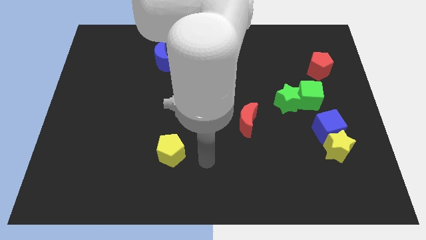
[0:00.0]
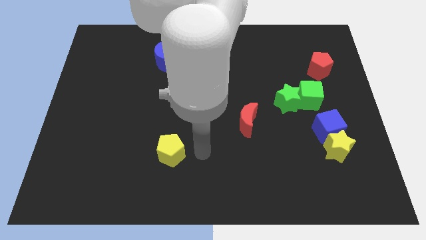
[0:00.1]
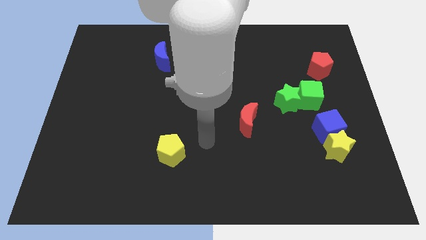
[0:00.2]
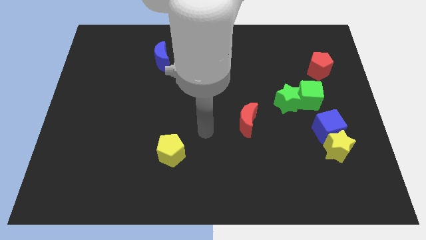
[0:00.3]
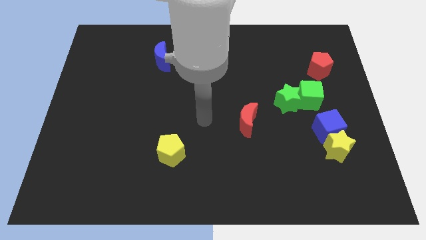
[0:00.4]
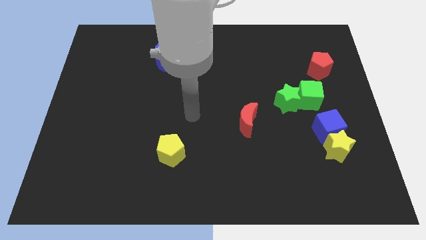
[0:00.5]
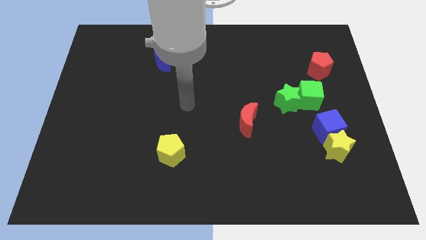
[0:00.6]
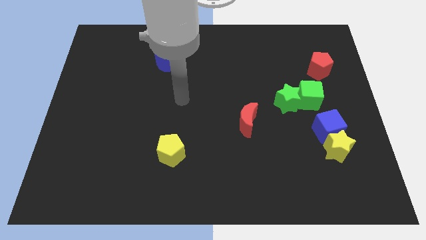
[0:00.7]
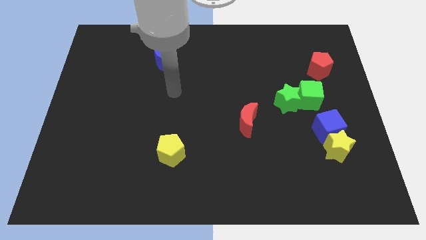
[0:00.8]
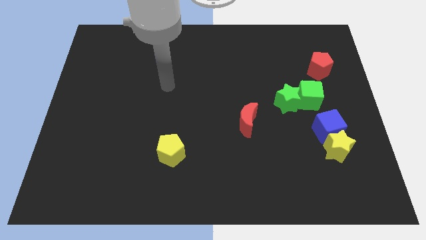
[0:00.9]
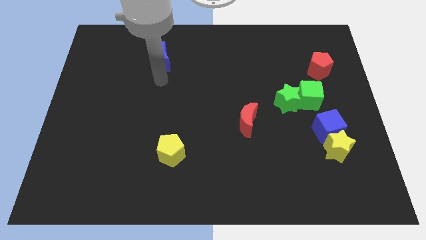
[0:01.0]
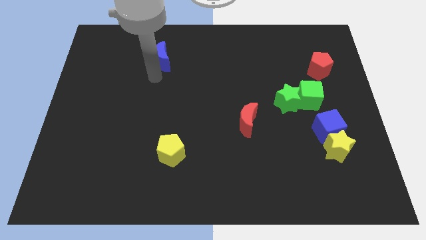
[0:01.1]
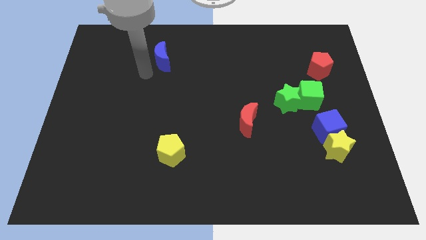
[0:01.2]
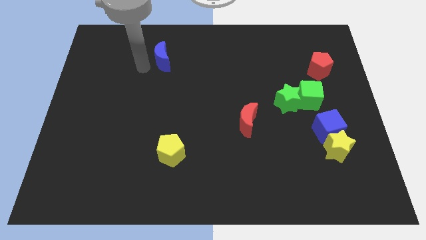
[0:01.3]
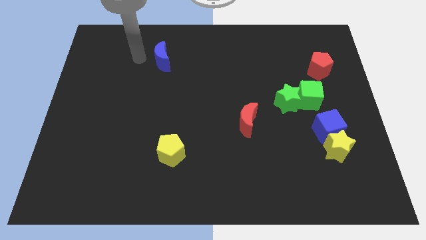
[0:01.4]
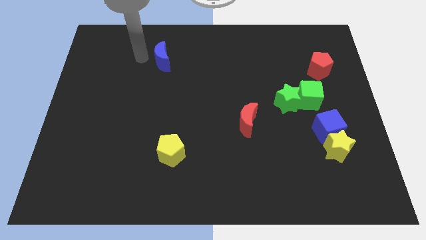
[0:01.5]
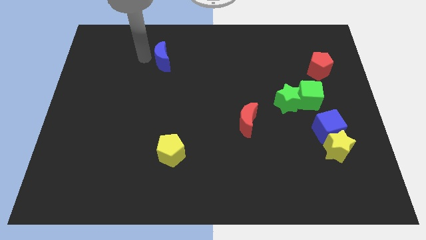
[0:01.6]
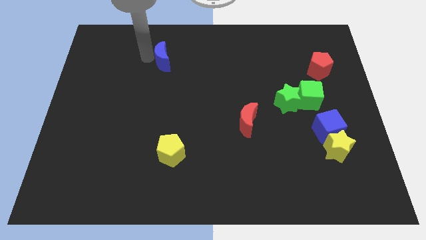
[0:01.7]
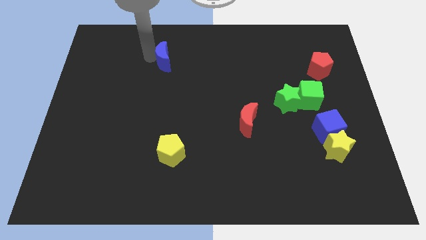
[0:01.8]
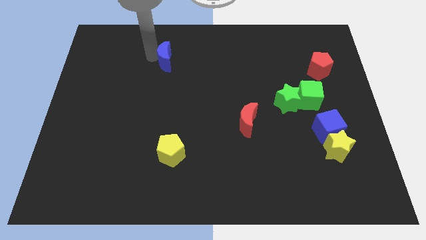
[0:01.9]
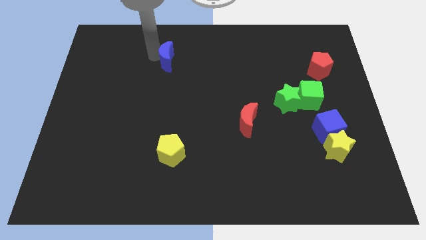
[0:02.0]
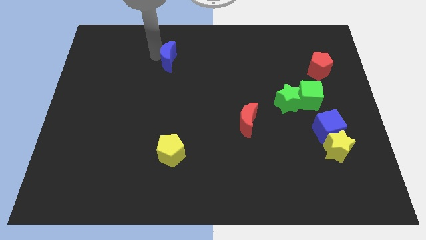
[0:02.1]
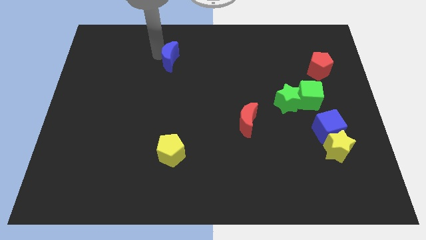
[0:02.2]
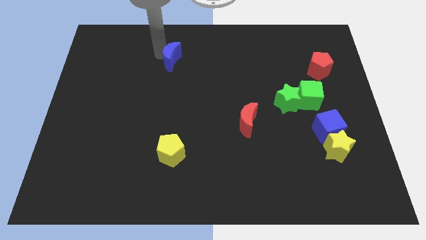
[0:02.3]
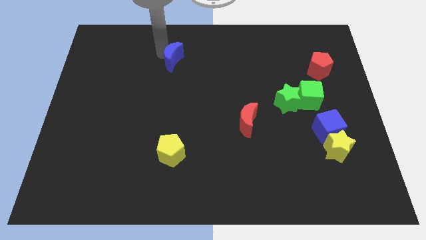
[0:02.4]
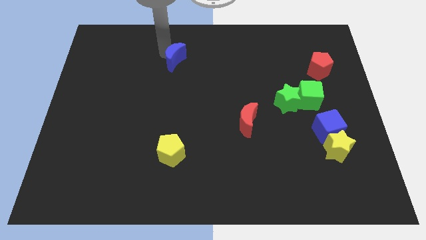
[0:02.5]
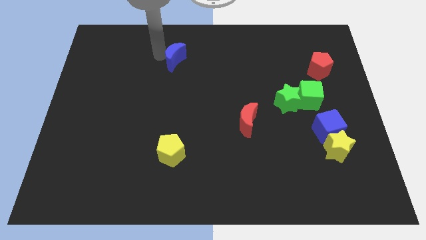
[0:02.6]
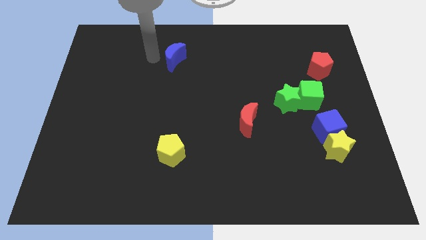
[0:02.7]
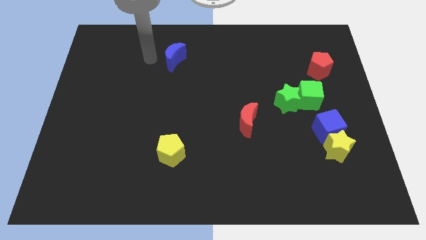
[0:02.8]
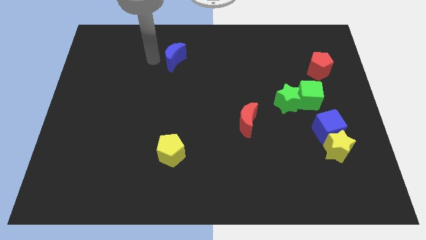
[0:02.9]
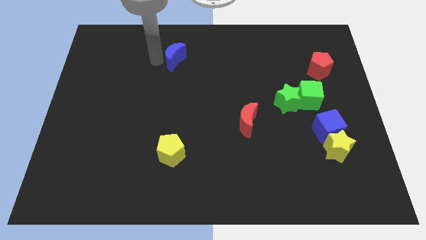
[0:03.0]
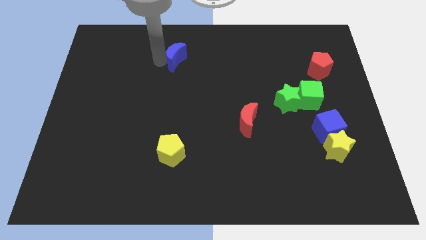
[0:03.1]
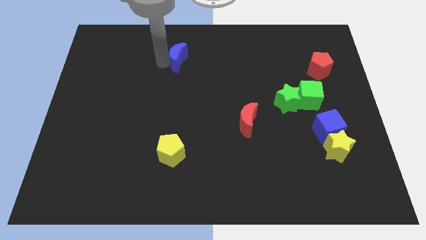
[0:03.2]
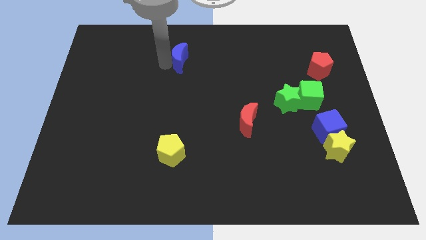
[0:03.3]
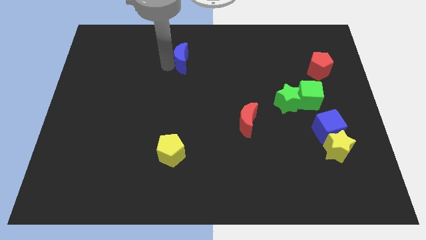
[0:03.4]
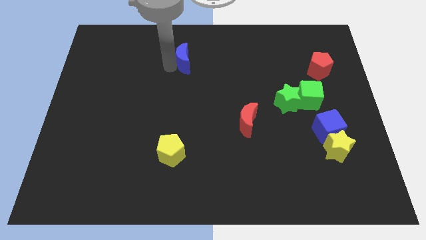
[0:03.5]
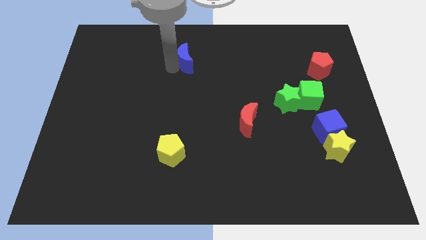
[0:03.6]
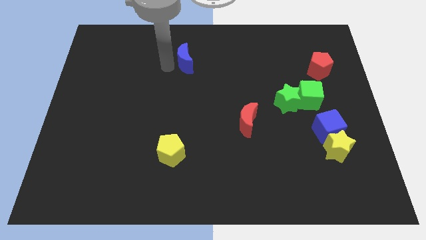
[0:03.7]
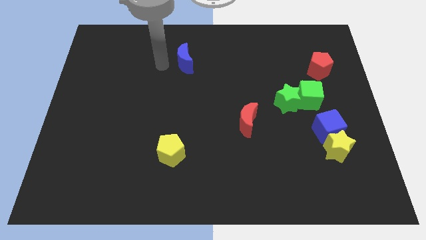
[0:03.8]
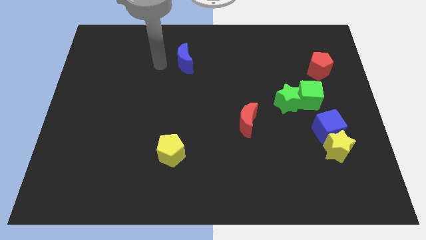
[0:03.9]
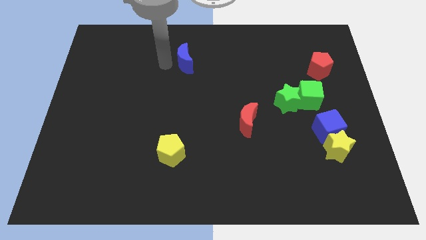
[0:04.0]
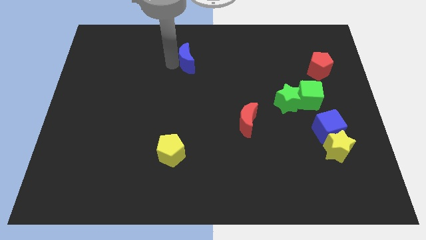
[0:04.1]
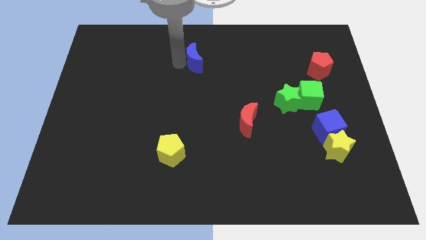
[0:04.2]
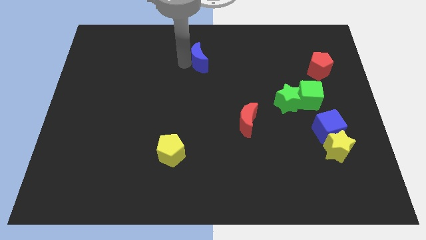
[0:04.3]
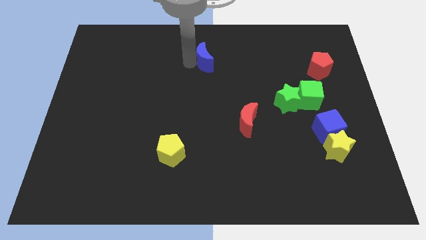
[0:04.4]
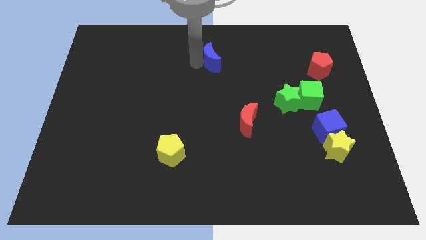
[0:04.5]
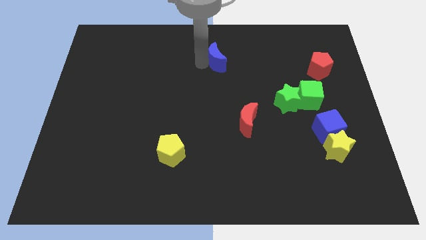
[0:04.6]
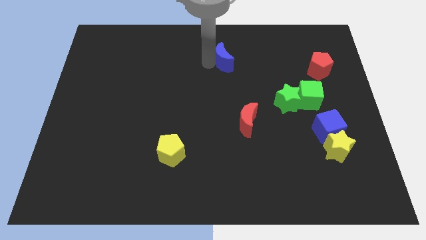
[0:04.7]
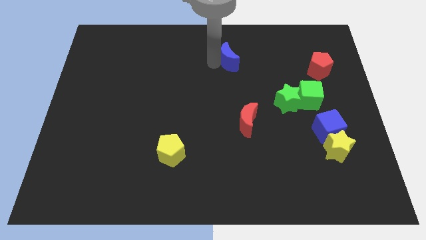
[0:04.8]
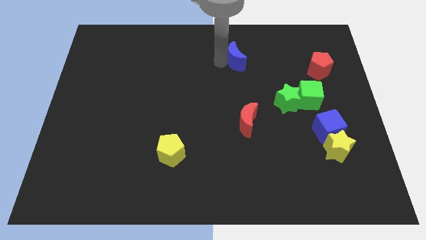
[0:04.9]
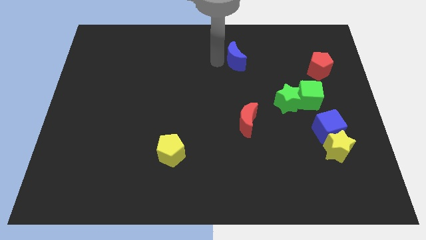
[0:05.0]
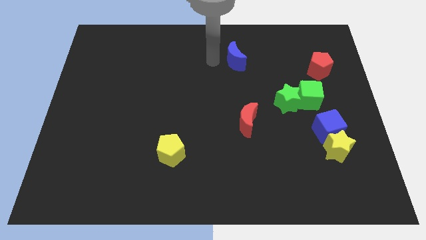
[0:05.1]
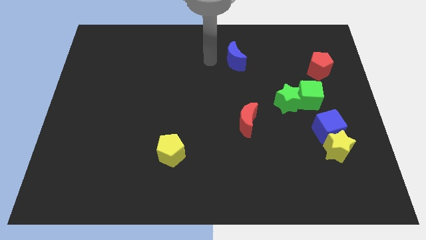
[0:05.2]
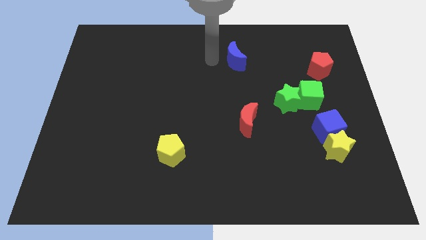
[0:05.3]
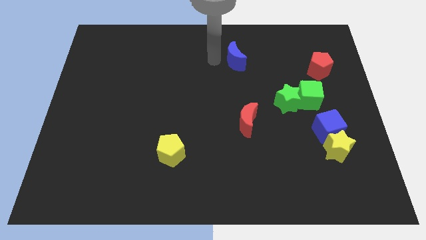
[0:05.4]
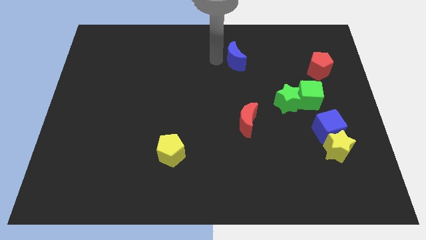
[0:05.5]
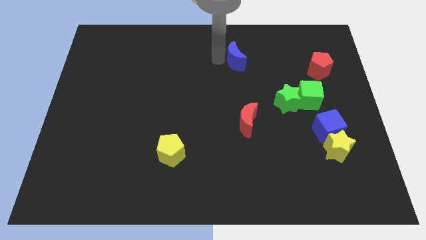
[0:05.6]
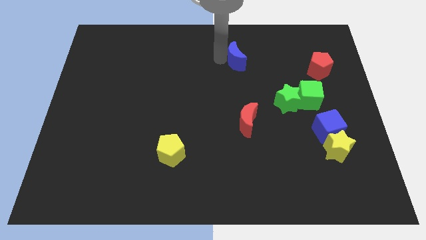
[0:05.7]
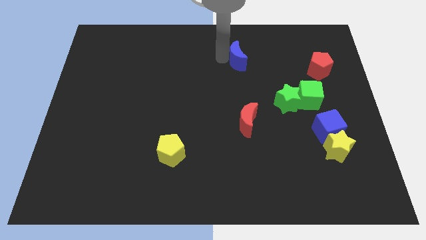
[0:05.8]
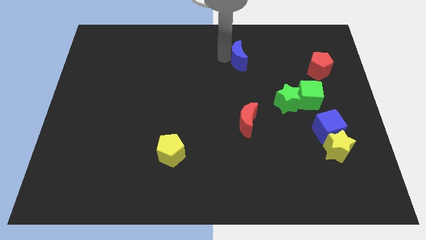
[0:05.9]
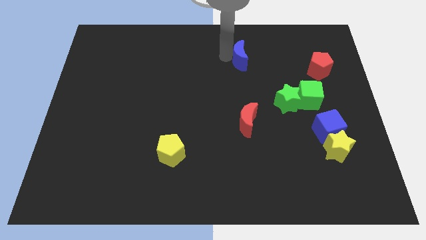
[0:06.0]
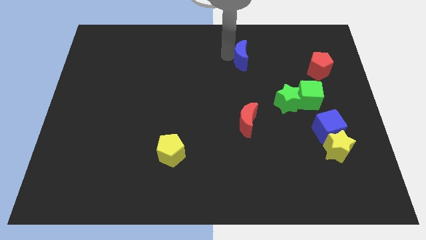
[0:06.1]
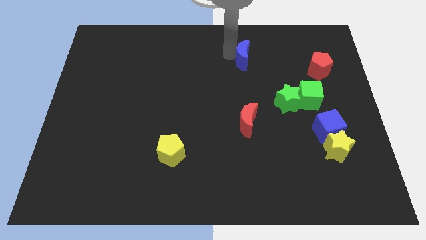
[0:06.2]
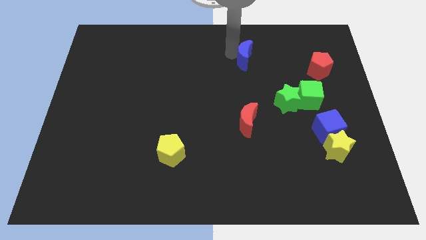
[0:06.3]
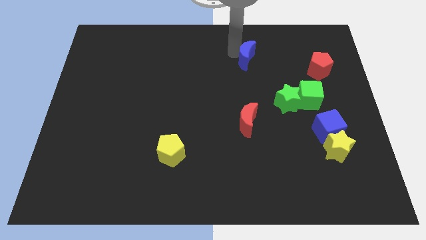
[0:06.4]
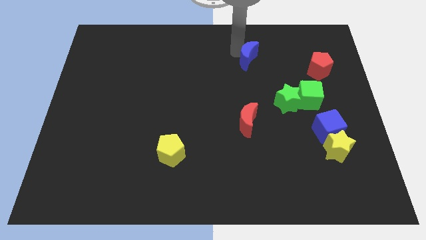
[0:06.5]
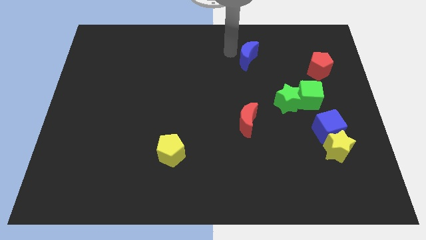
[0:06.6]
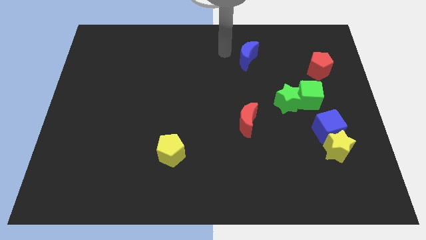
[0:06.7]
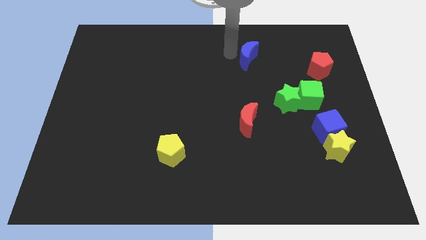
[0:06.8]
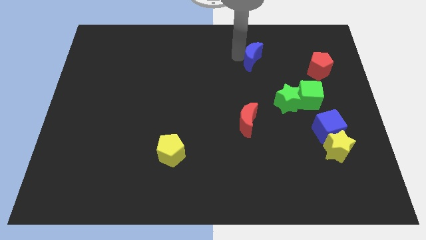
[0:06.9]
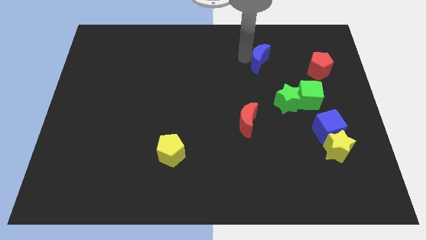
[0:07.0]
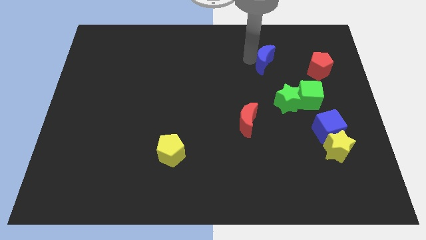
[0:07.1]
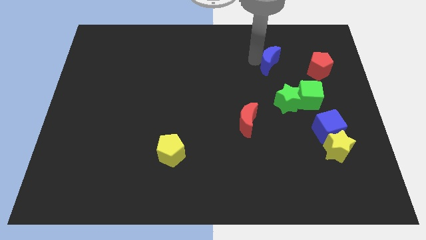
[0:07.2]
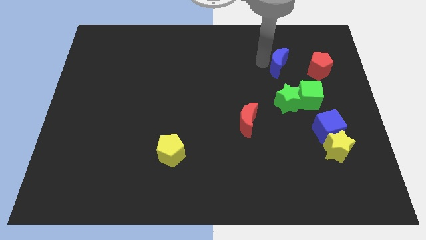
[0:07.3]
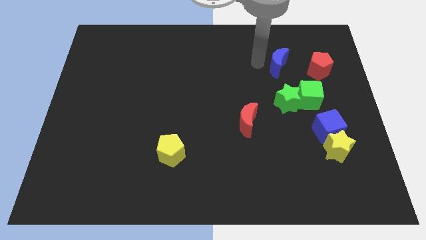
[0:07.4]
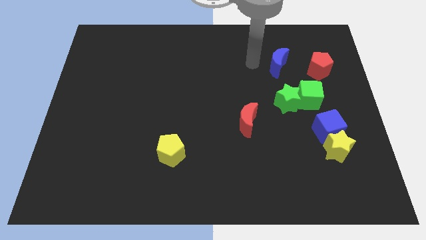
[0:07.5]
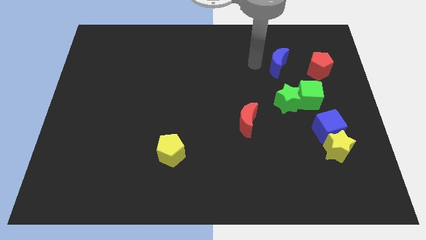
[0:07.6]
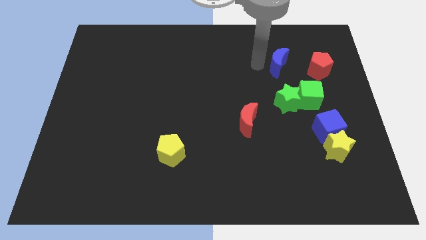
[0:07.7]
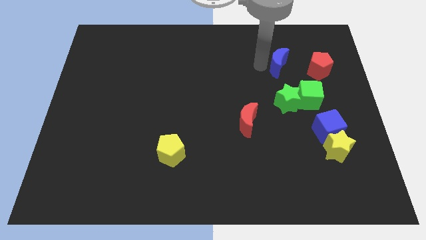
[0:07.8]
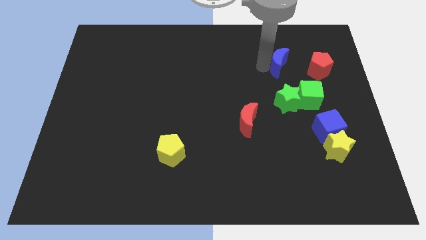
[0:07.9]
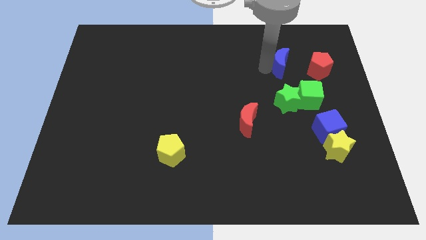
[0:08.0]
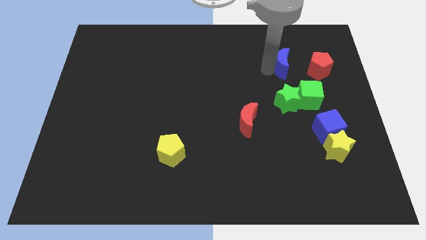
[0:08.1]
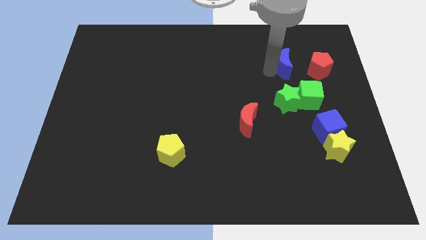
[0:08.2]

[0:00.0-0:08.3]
put the blue moon above the green cube
